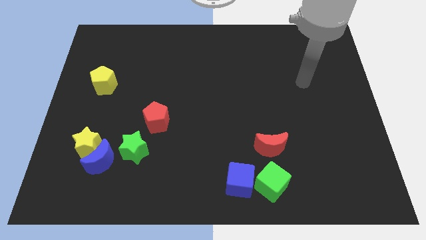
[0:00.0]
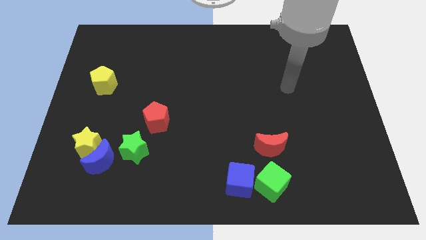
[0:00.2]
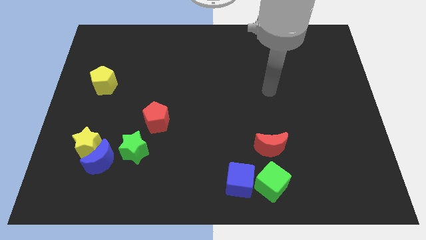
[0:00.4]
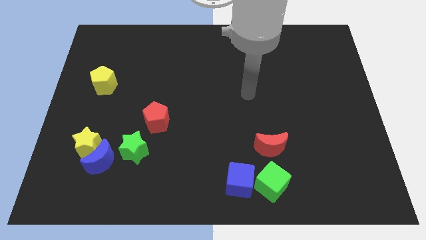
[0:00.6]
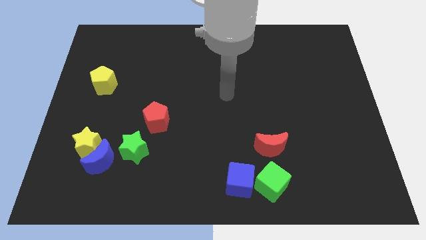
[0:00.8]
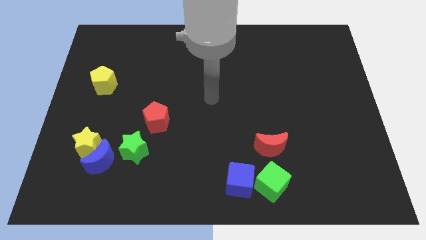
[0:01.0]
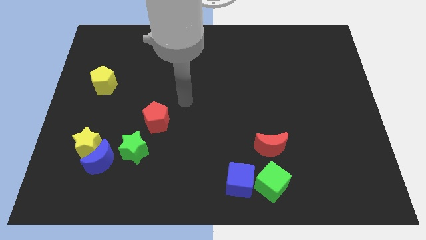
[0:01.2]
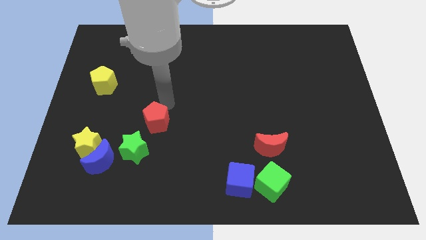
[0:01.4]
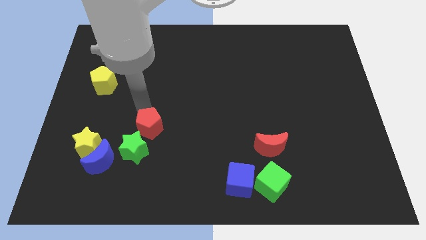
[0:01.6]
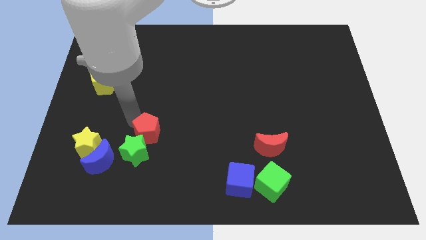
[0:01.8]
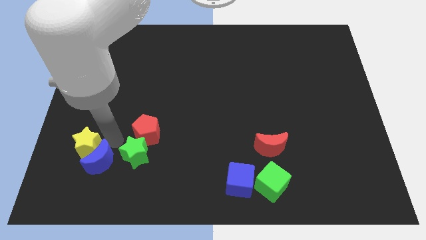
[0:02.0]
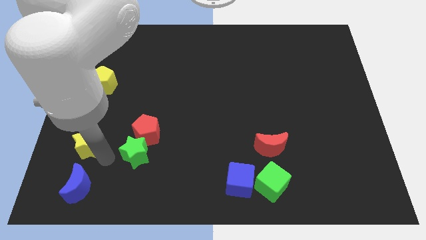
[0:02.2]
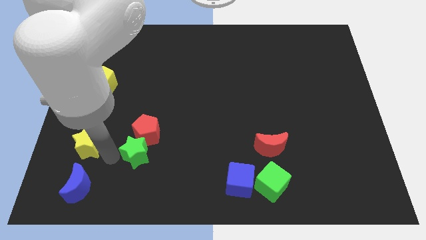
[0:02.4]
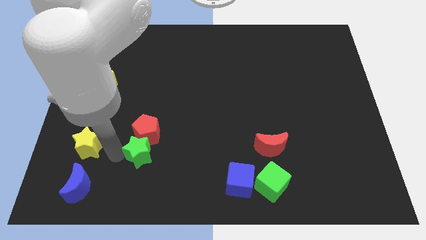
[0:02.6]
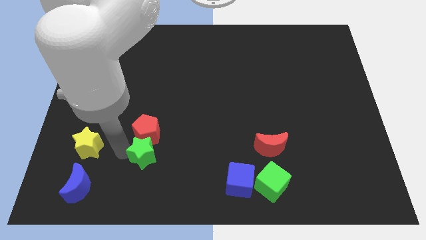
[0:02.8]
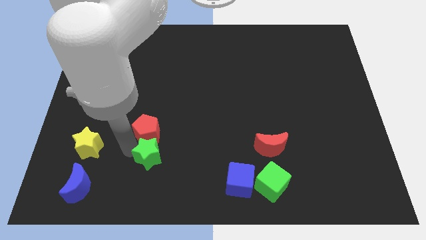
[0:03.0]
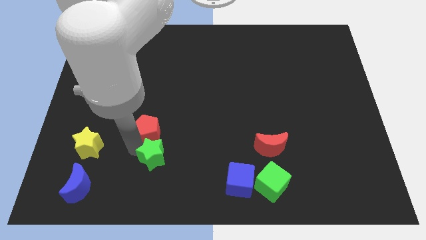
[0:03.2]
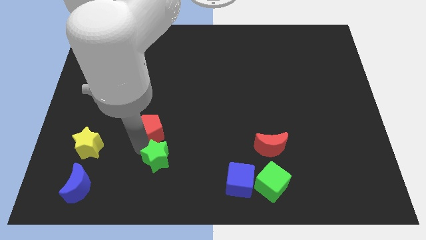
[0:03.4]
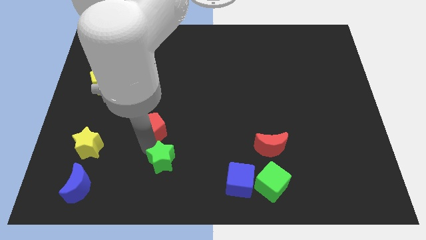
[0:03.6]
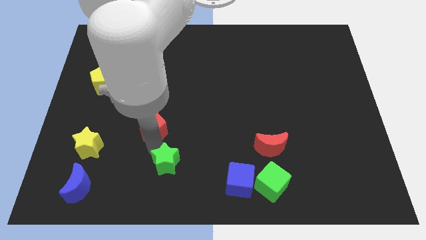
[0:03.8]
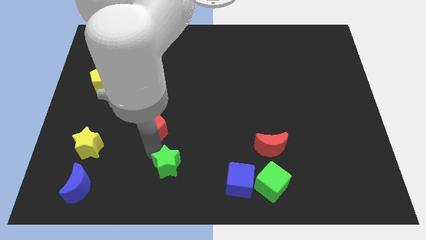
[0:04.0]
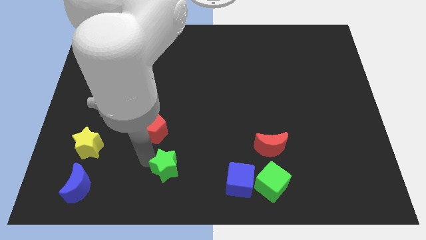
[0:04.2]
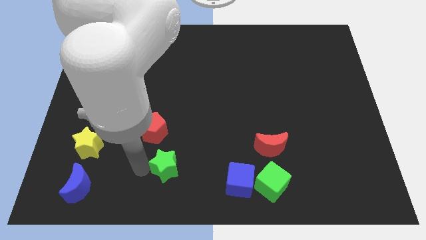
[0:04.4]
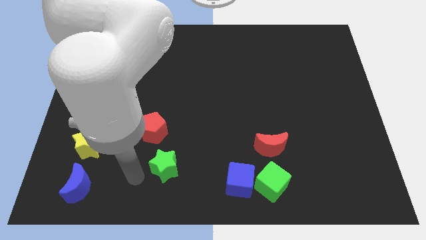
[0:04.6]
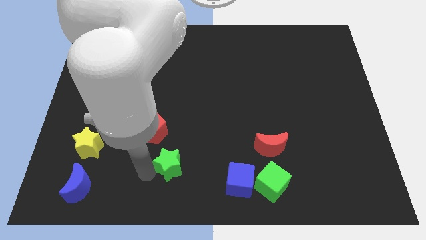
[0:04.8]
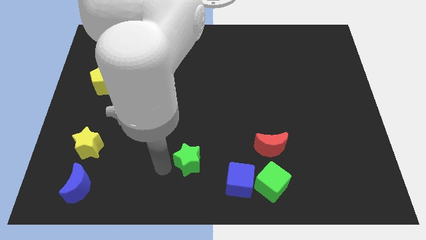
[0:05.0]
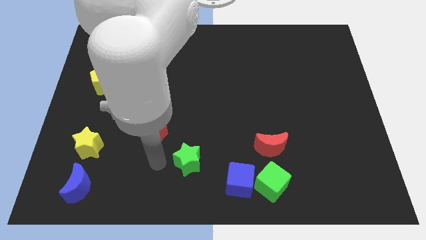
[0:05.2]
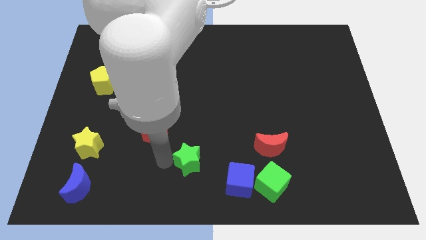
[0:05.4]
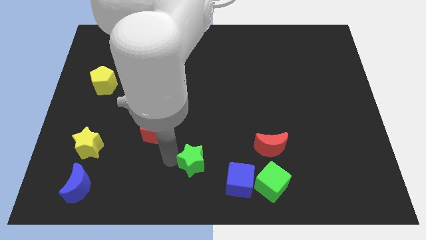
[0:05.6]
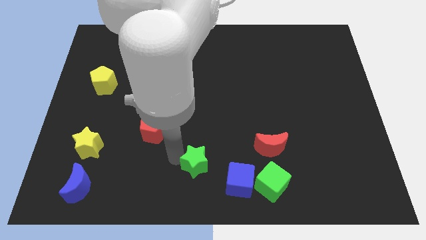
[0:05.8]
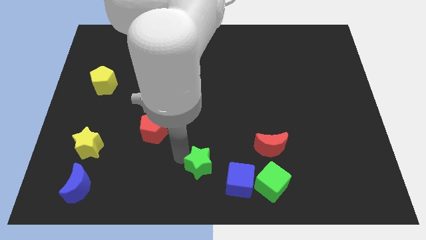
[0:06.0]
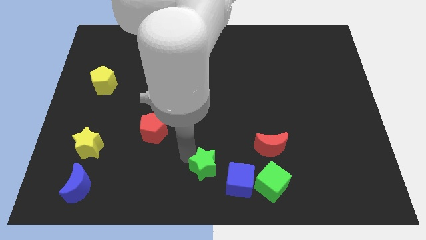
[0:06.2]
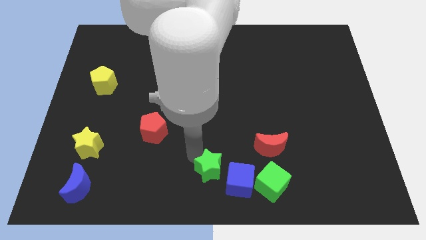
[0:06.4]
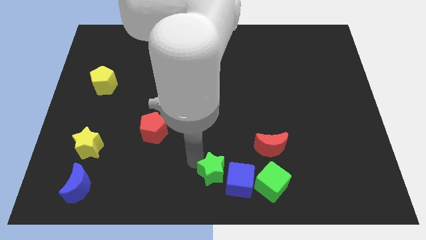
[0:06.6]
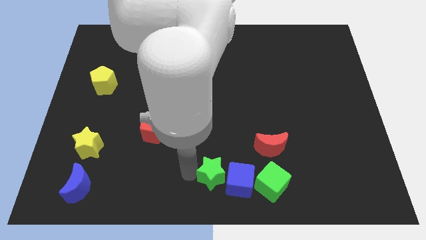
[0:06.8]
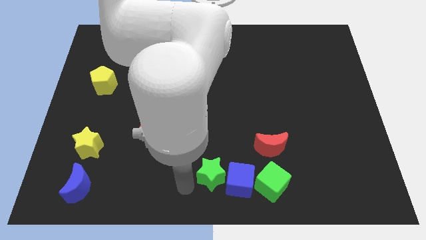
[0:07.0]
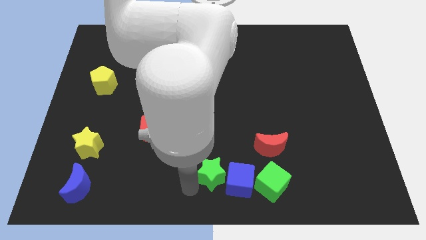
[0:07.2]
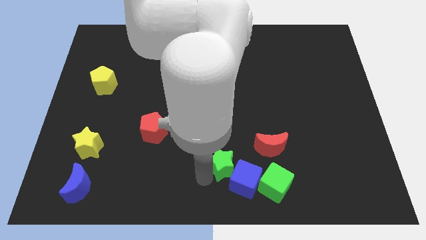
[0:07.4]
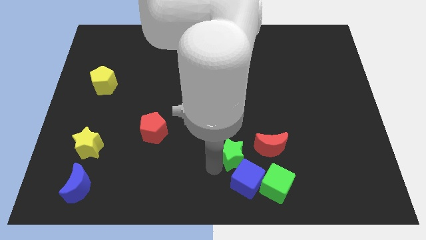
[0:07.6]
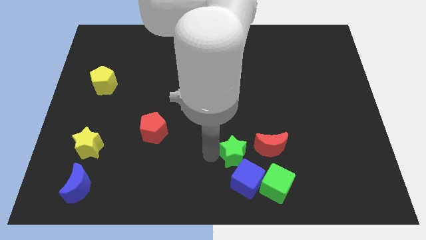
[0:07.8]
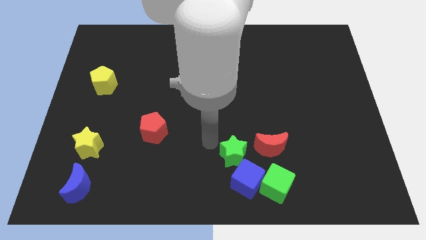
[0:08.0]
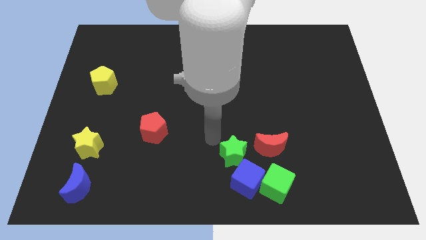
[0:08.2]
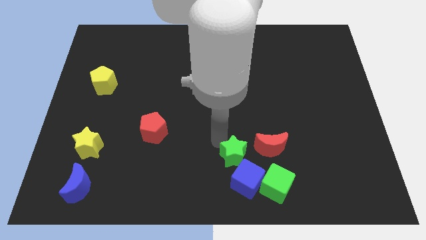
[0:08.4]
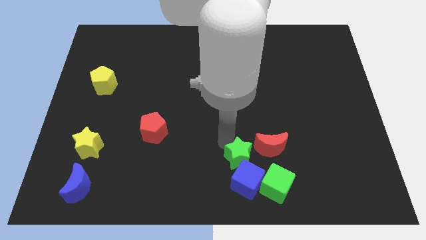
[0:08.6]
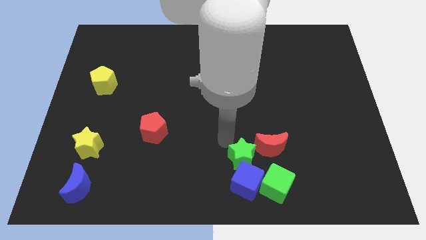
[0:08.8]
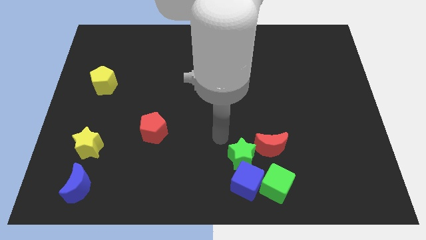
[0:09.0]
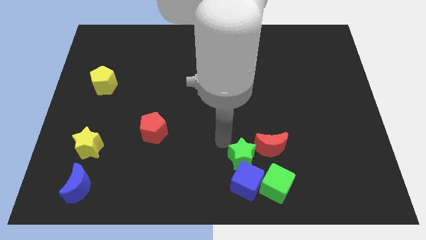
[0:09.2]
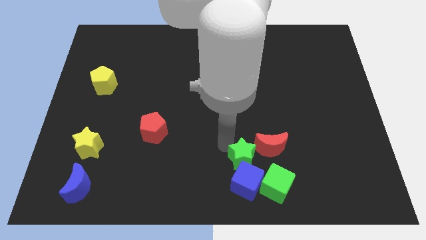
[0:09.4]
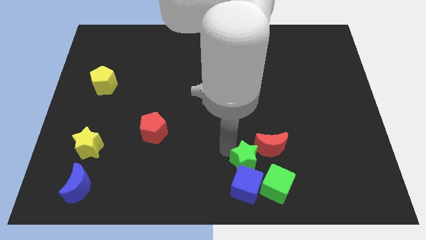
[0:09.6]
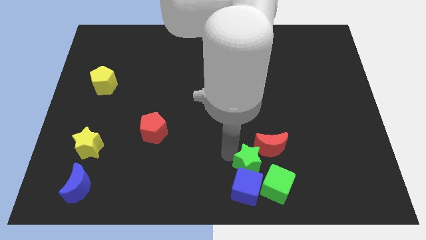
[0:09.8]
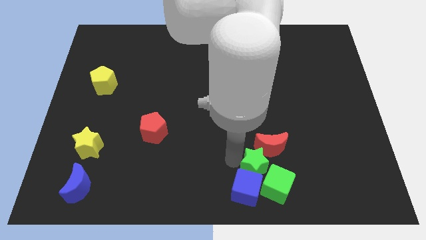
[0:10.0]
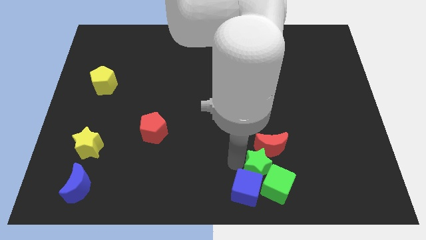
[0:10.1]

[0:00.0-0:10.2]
move the green star close to the green cube

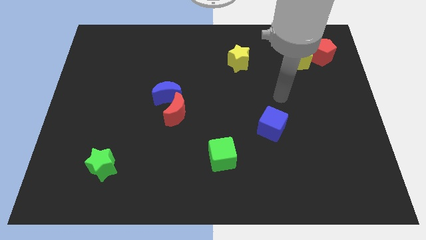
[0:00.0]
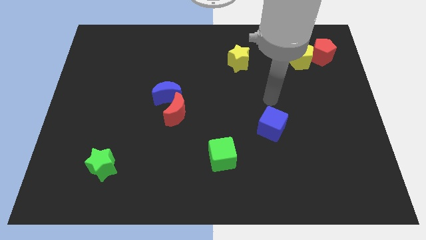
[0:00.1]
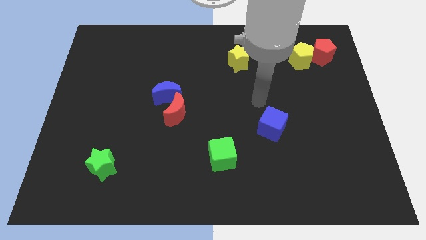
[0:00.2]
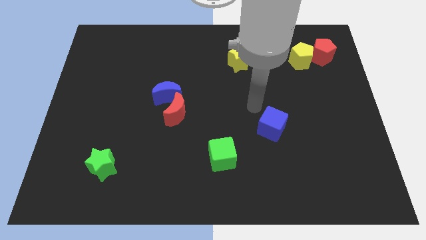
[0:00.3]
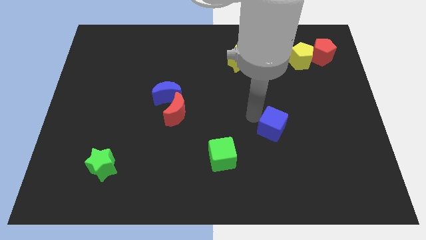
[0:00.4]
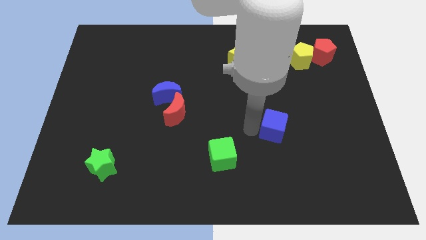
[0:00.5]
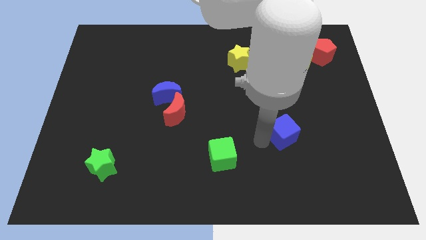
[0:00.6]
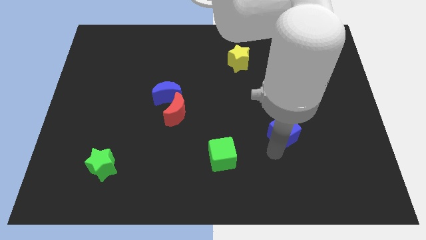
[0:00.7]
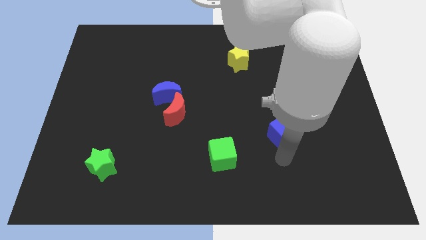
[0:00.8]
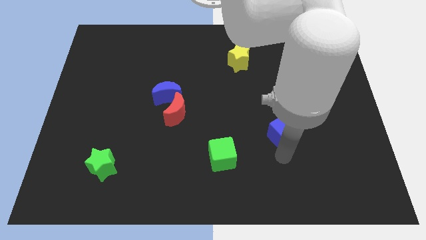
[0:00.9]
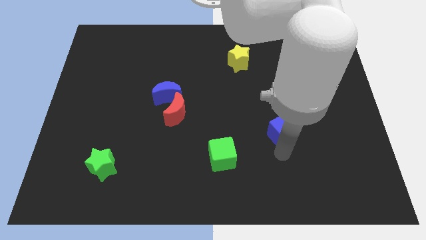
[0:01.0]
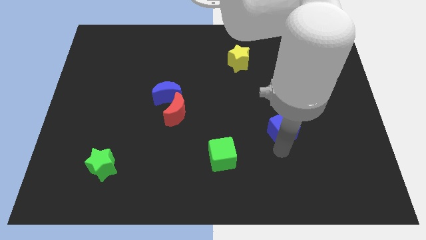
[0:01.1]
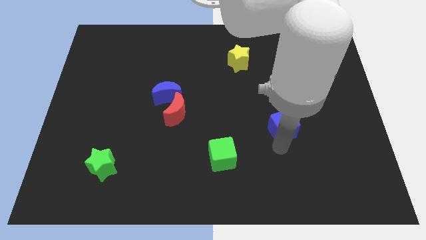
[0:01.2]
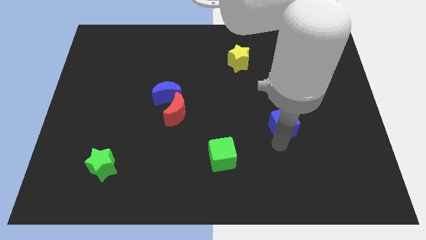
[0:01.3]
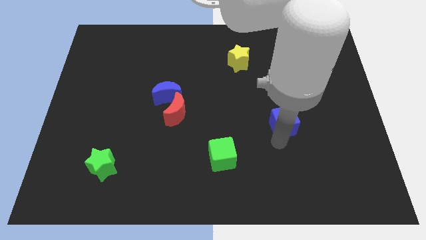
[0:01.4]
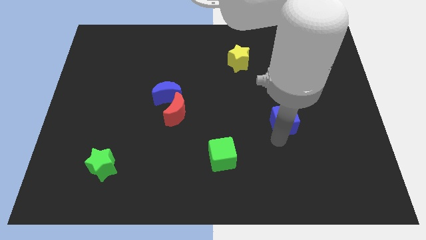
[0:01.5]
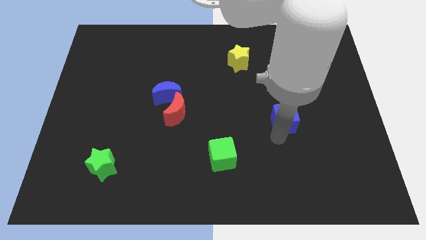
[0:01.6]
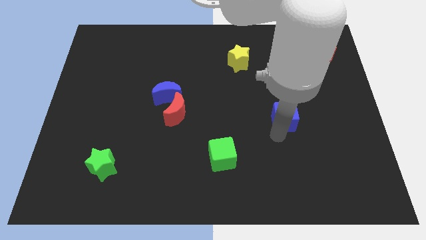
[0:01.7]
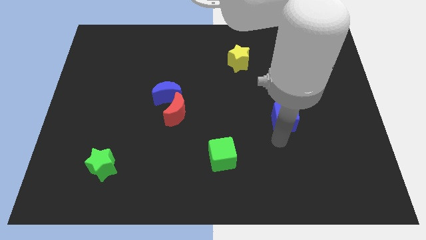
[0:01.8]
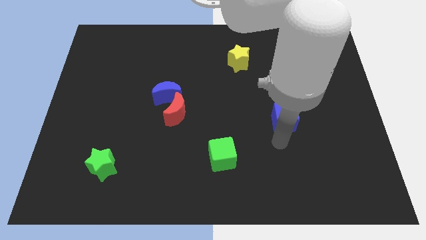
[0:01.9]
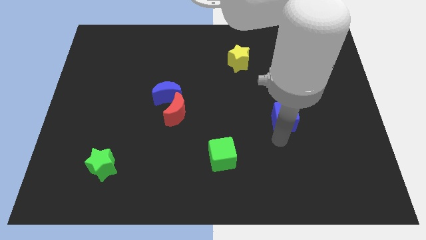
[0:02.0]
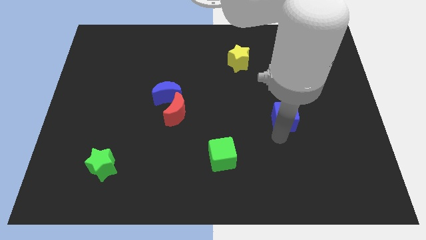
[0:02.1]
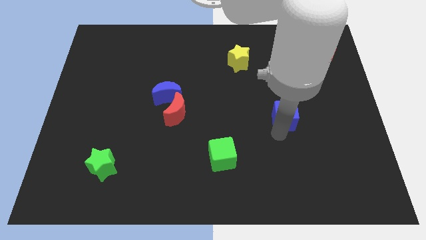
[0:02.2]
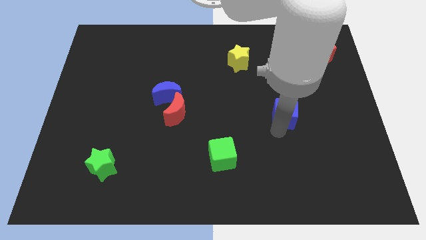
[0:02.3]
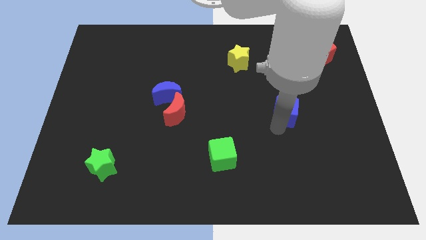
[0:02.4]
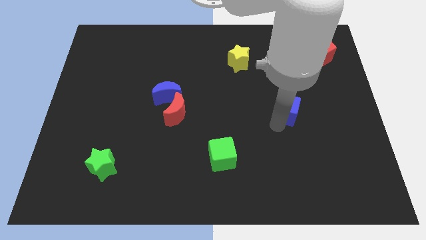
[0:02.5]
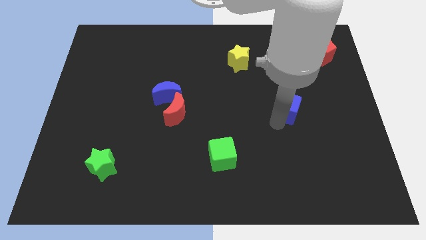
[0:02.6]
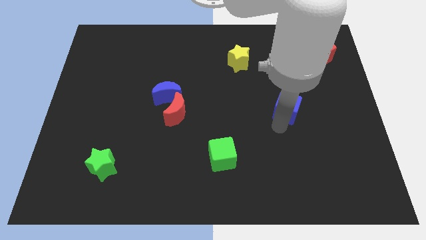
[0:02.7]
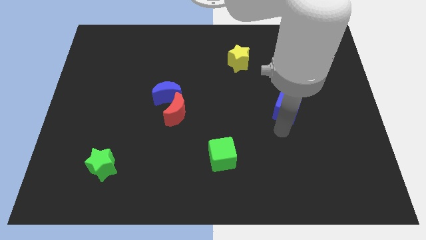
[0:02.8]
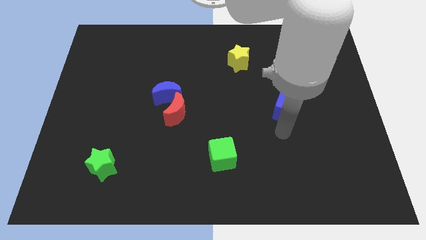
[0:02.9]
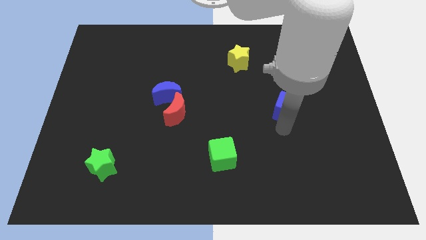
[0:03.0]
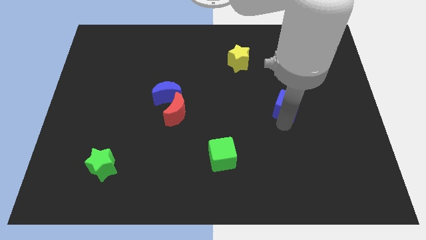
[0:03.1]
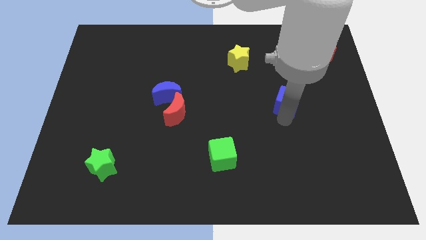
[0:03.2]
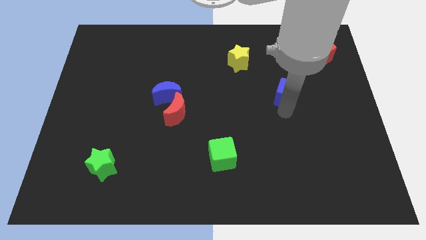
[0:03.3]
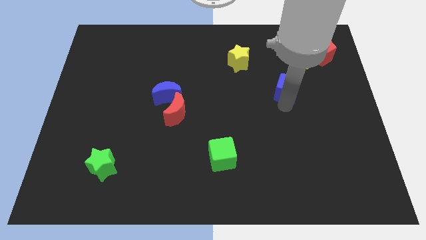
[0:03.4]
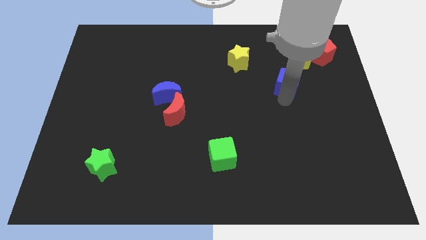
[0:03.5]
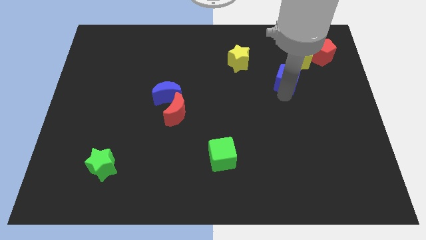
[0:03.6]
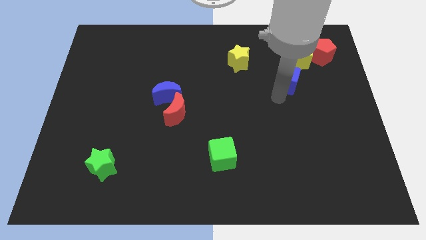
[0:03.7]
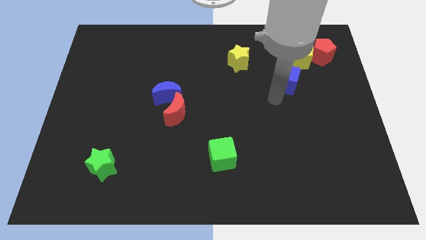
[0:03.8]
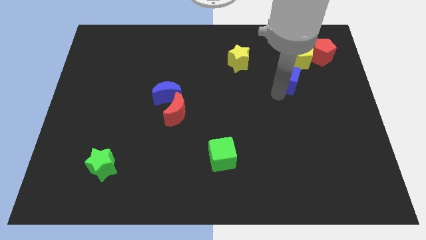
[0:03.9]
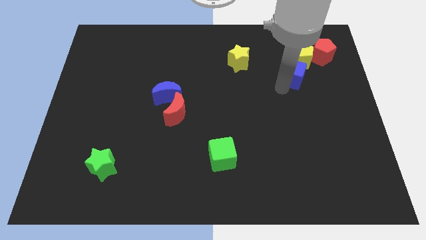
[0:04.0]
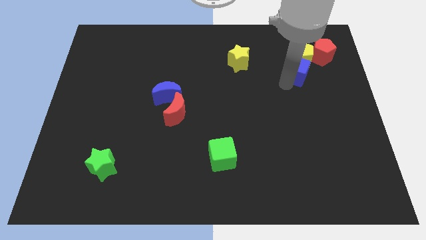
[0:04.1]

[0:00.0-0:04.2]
move the blue cube towards the yellow pentagon
